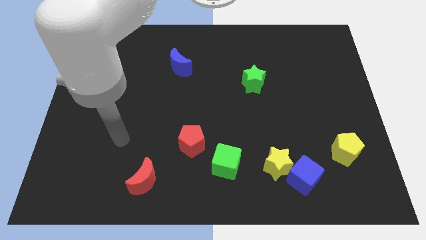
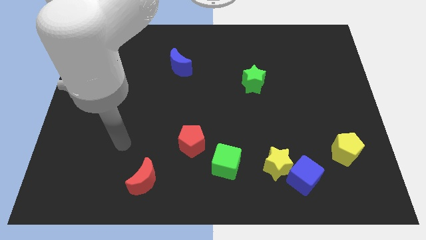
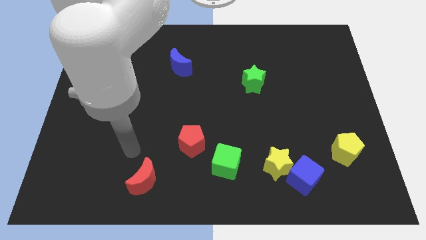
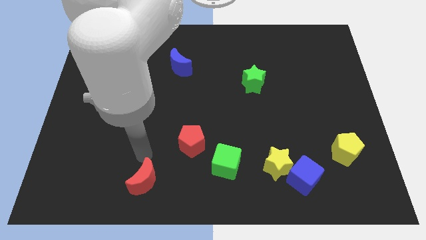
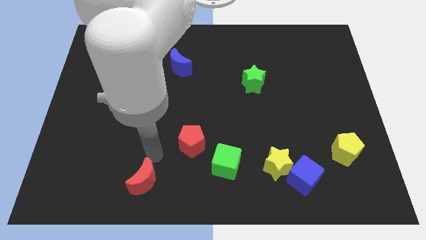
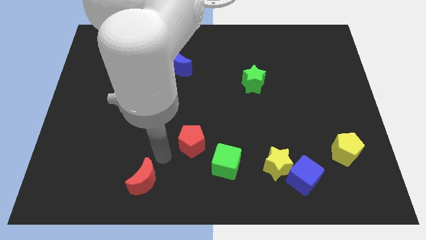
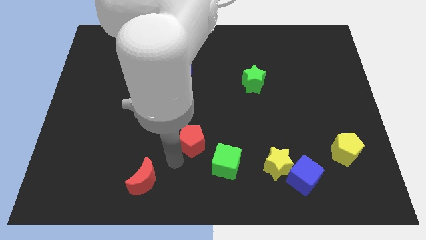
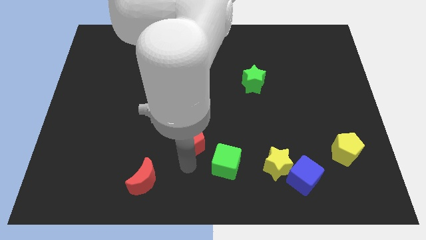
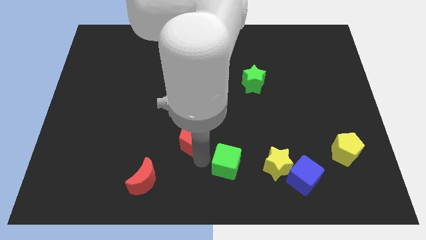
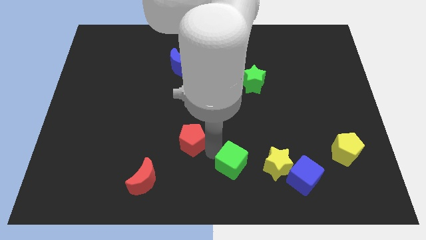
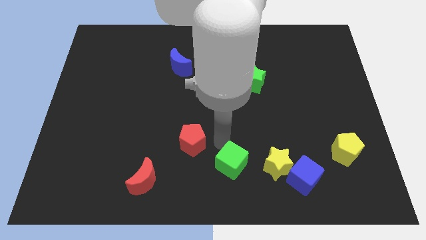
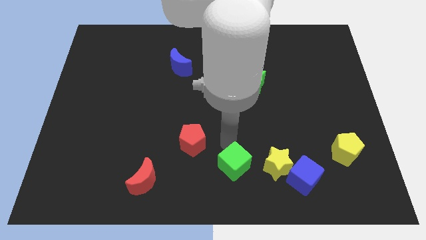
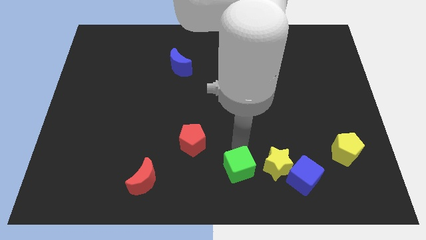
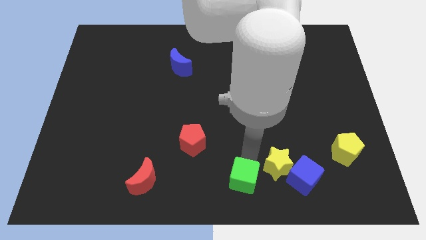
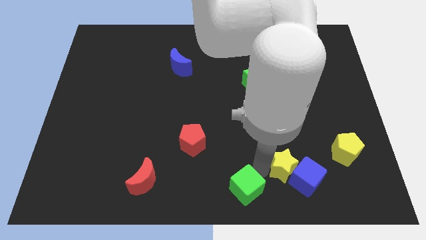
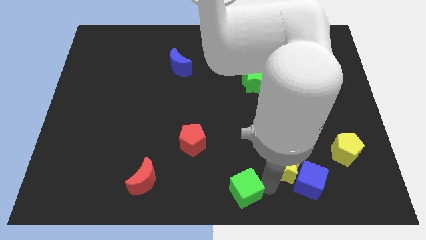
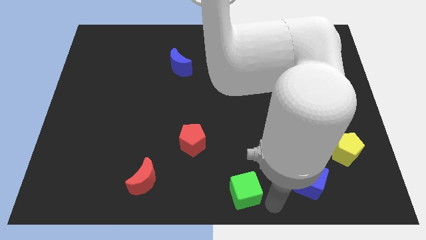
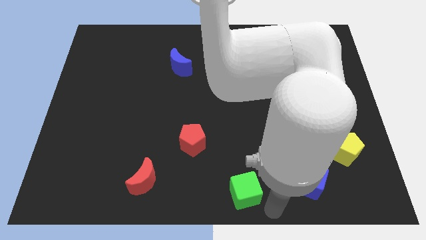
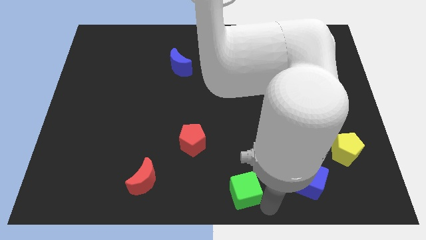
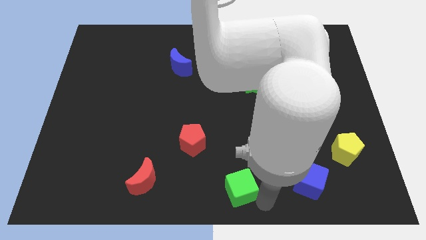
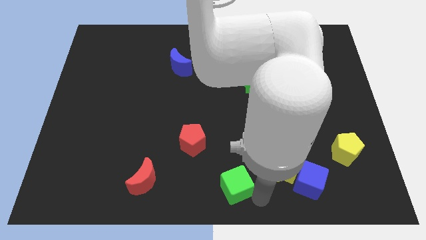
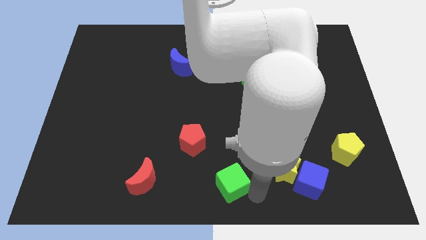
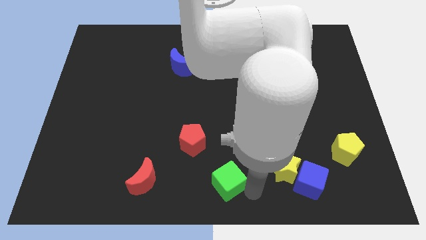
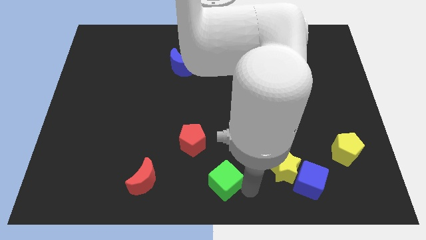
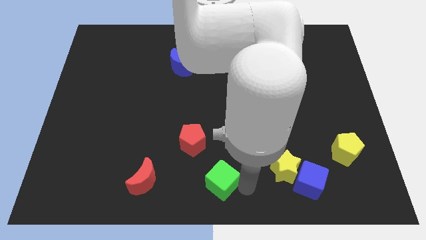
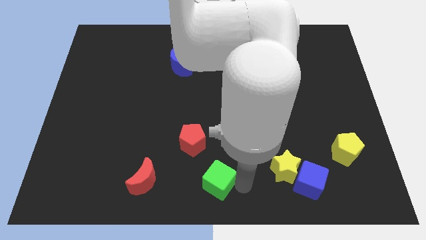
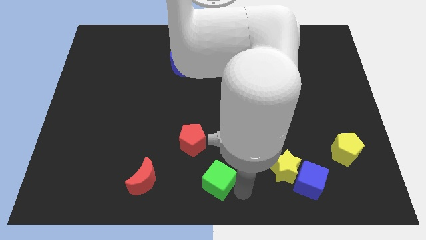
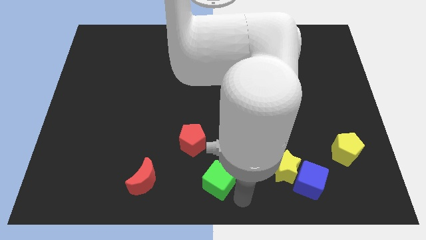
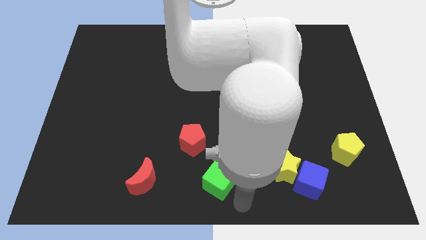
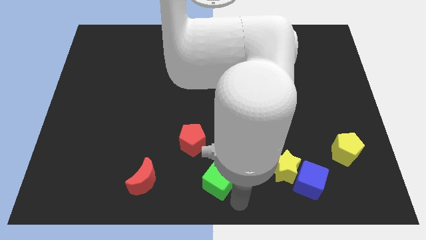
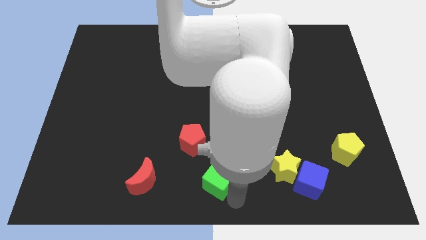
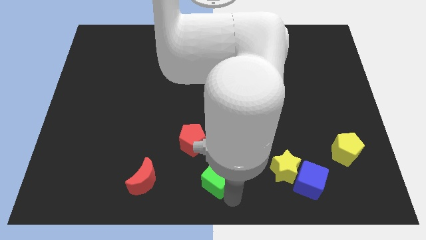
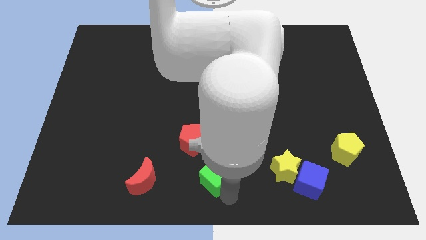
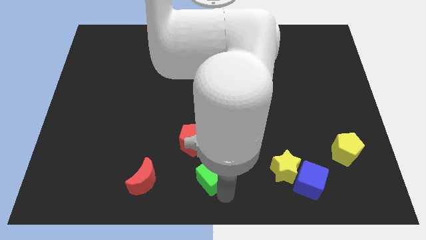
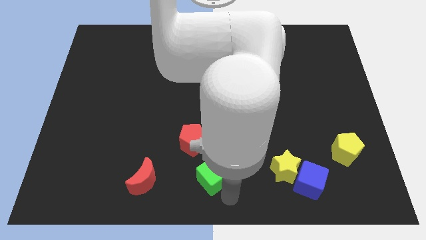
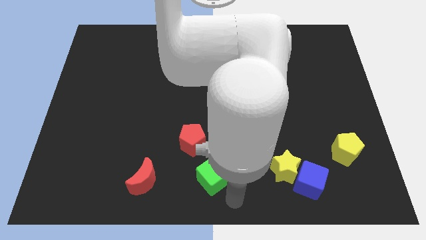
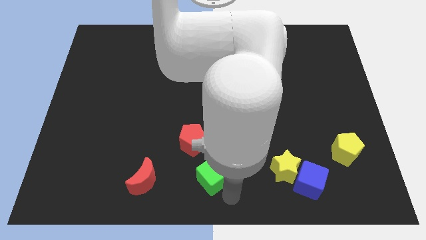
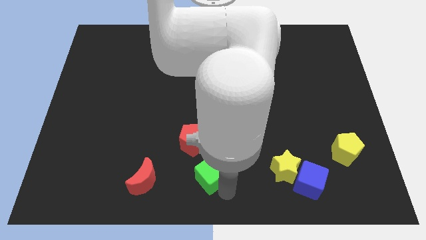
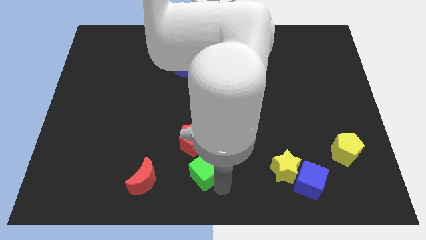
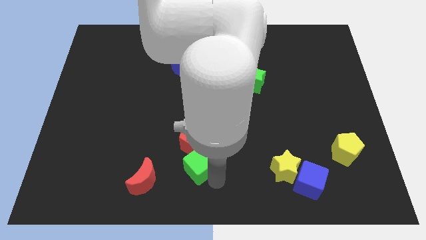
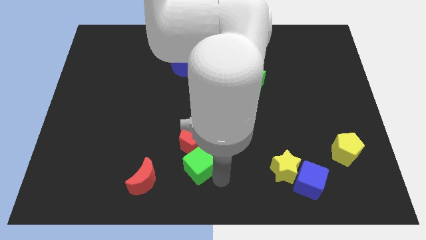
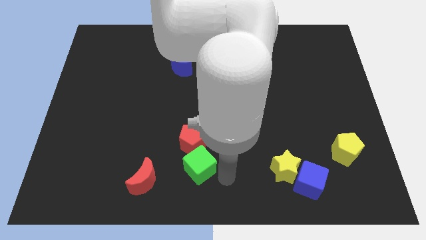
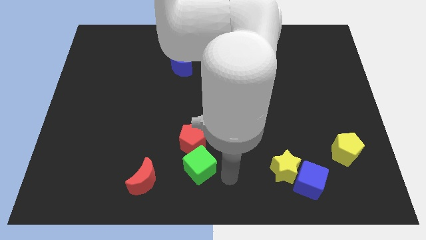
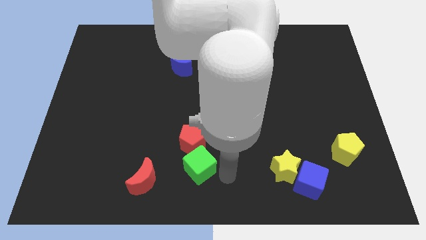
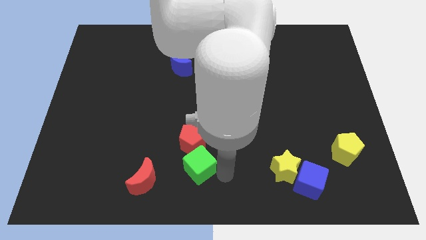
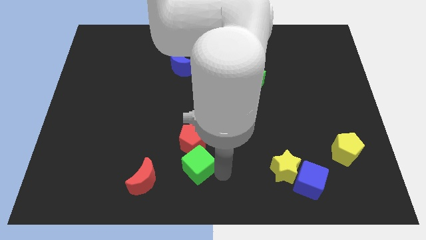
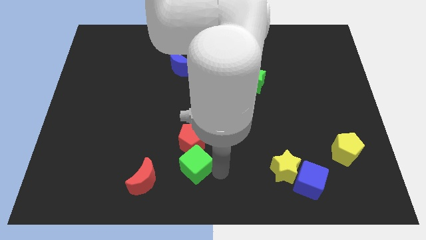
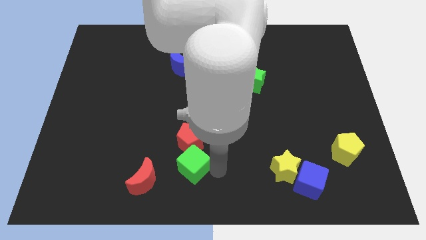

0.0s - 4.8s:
slide the green cube to the left somewhat

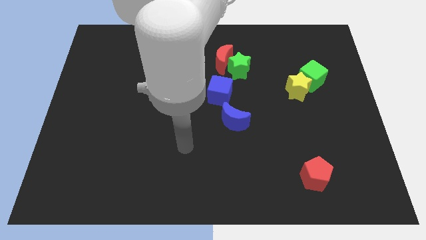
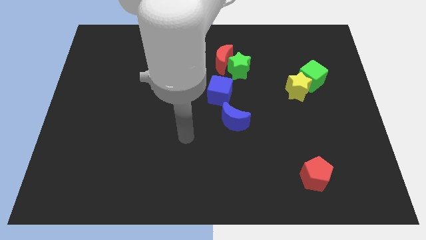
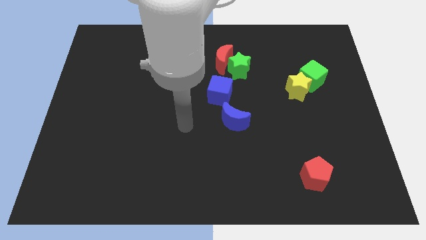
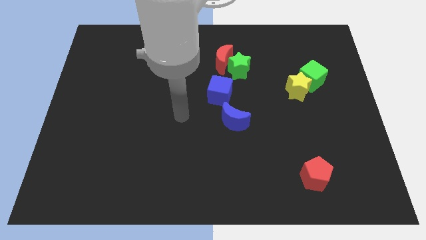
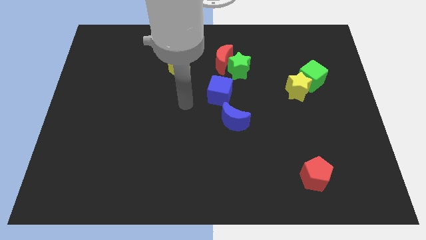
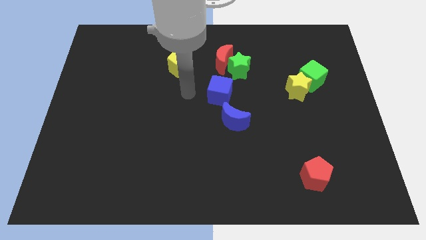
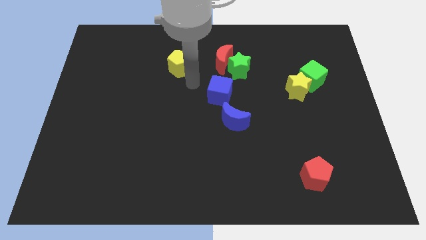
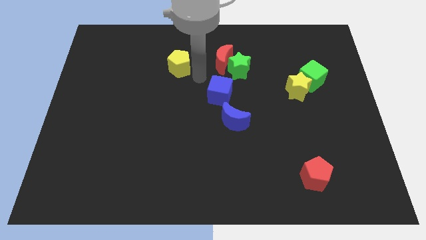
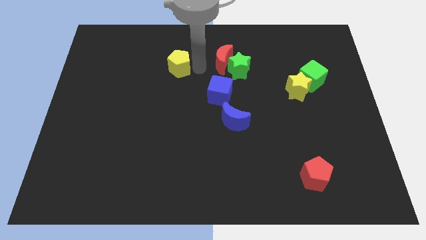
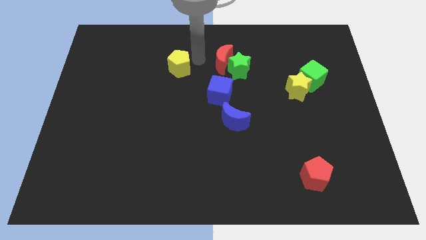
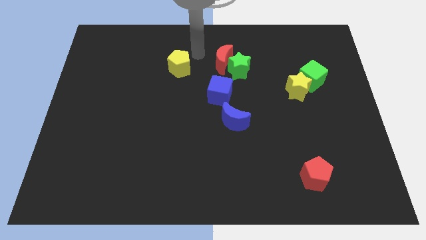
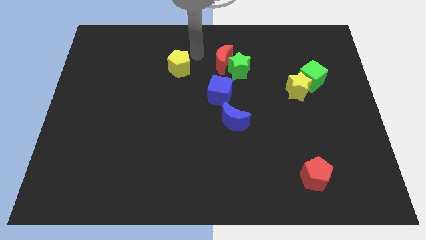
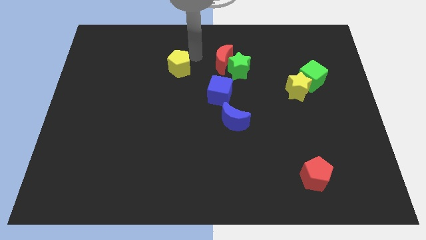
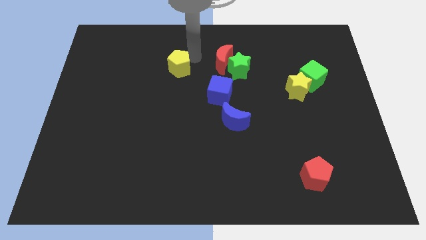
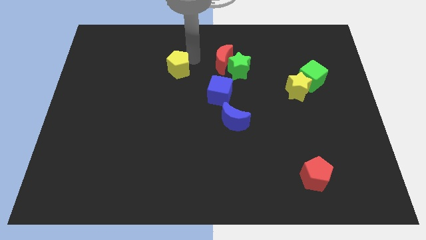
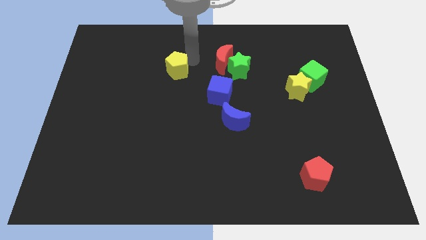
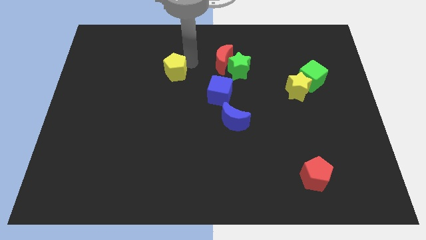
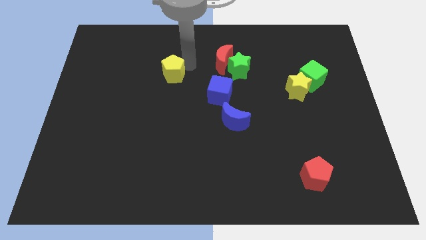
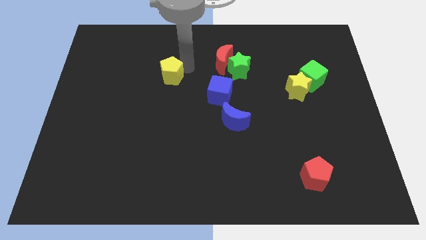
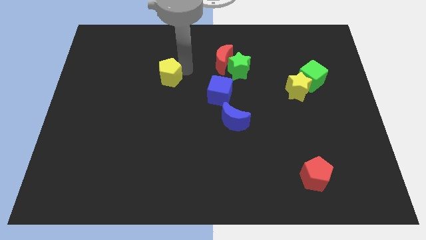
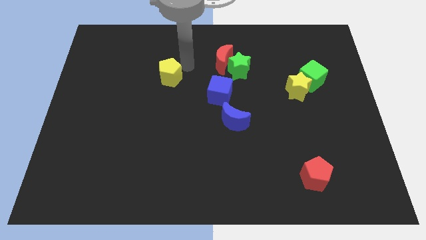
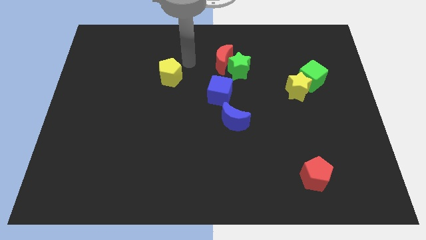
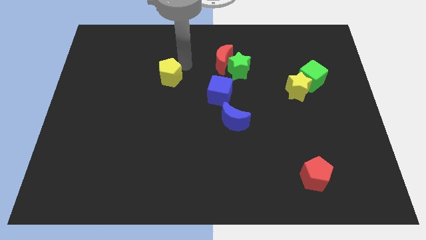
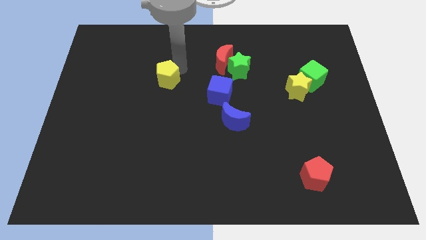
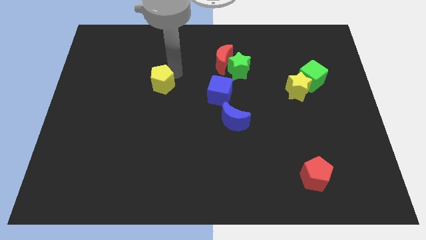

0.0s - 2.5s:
slide the yellow pentagon a little bit diagonally down and left

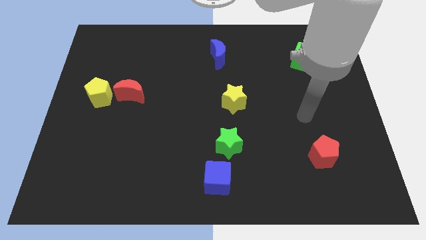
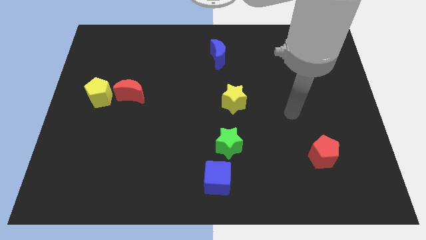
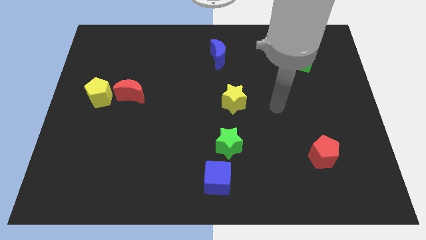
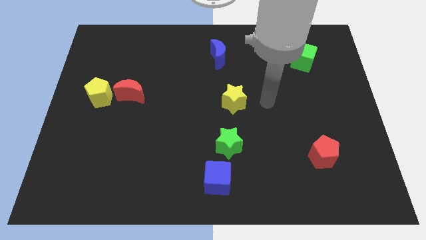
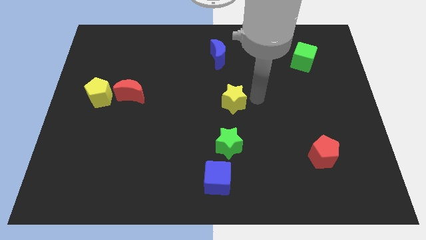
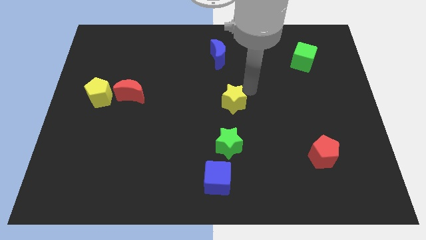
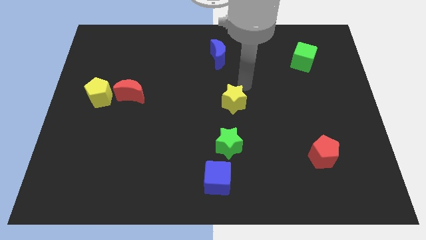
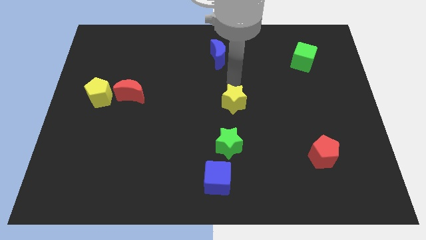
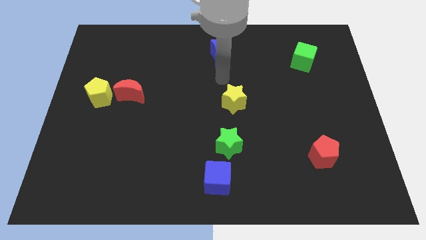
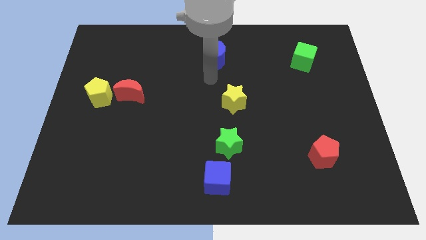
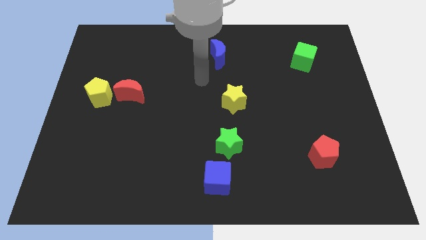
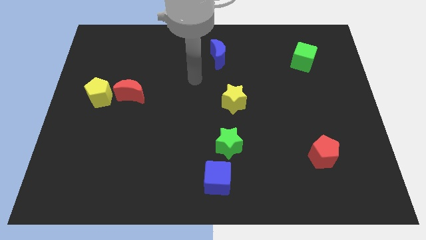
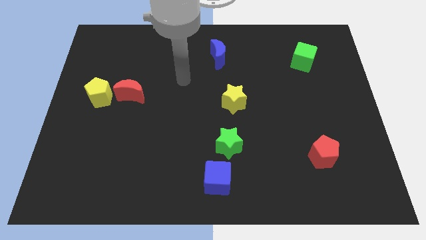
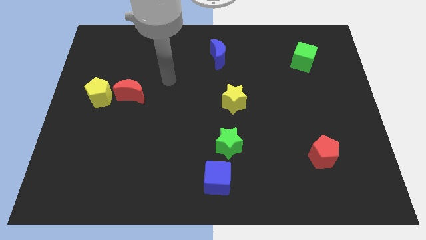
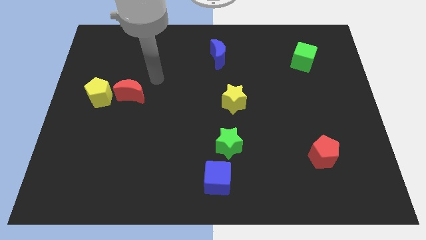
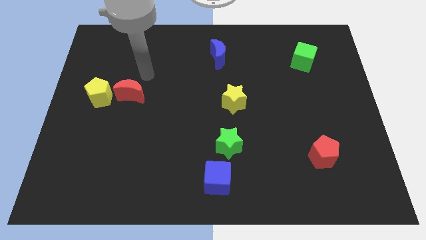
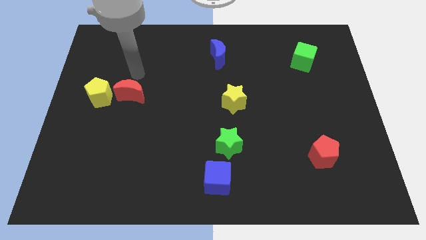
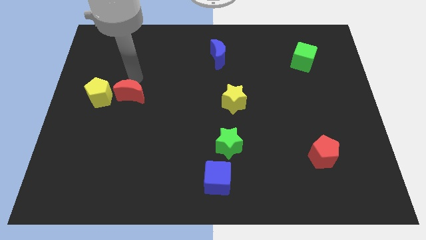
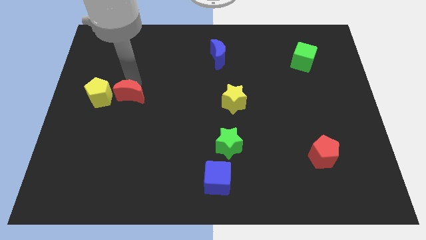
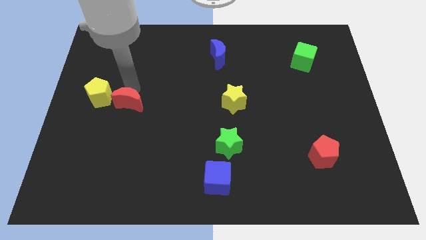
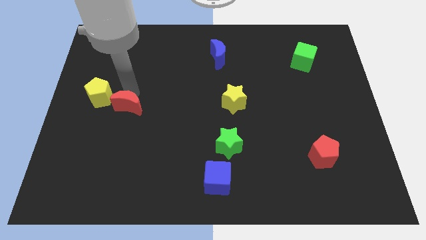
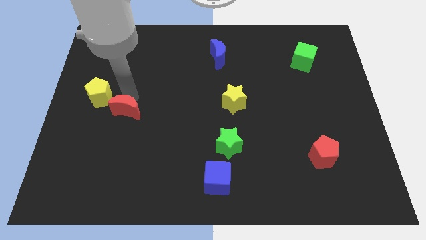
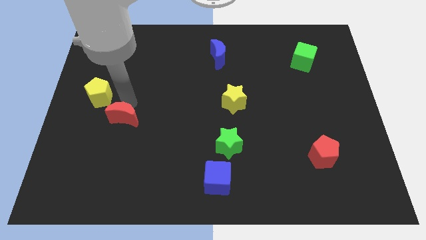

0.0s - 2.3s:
slightly slide the red moon downwards
